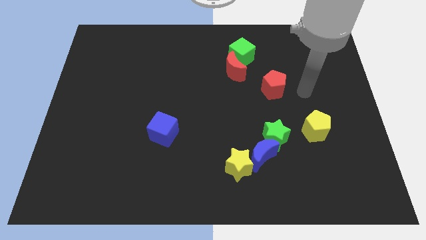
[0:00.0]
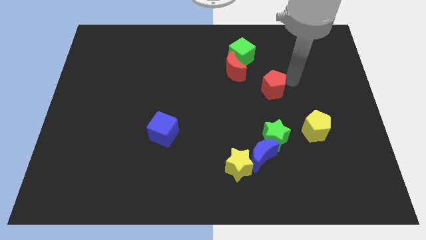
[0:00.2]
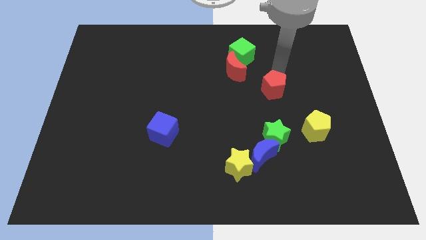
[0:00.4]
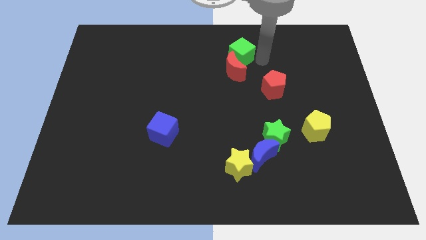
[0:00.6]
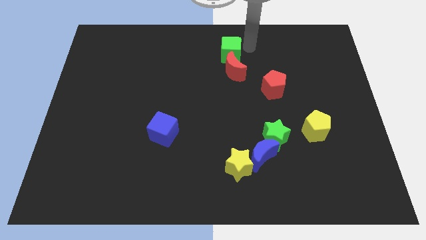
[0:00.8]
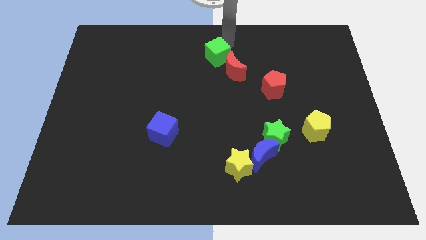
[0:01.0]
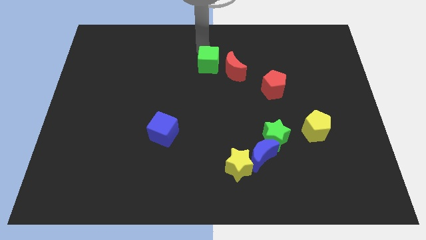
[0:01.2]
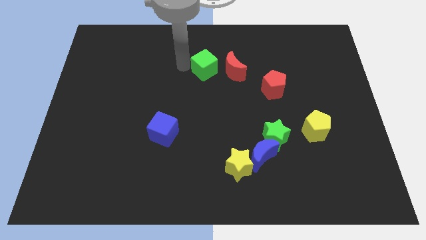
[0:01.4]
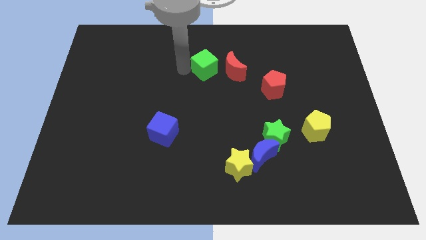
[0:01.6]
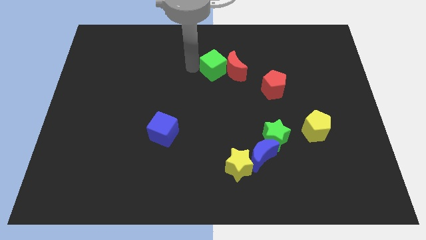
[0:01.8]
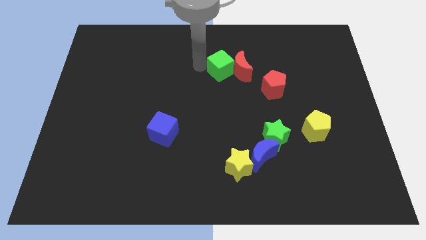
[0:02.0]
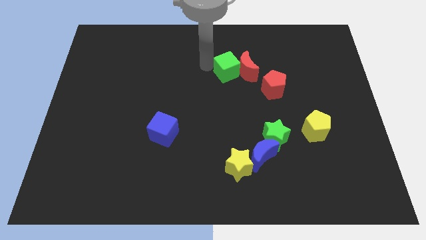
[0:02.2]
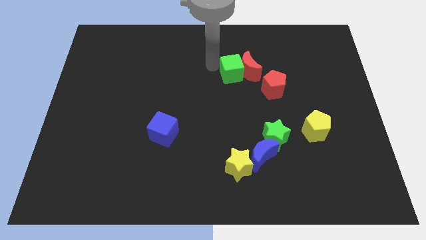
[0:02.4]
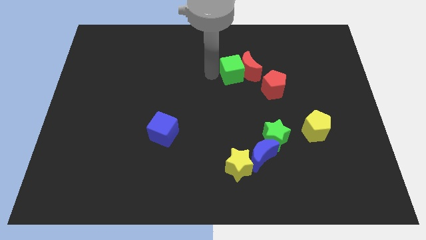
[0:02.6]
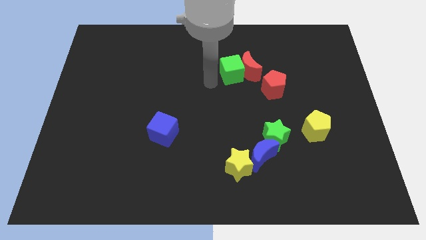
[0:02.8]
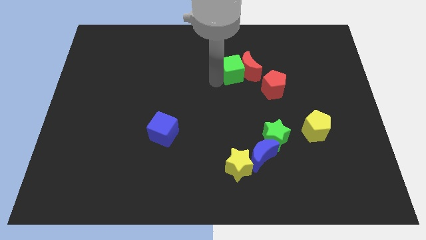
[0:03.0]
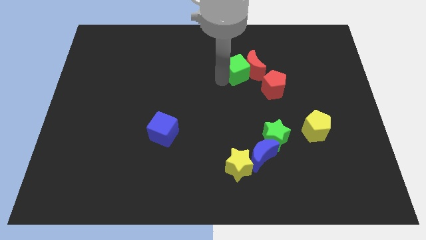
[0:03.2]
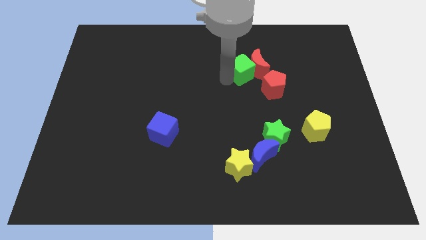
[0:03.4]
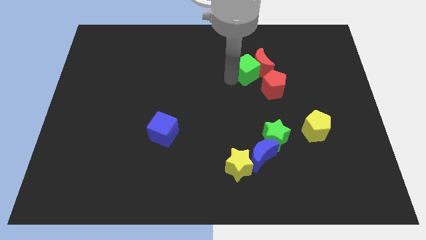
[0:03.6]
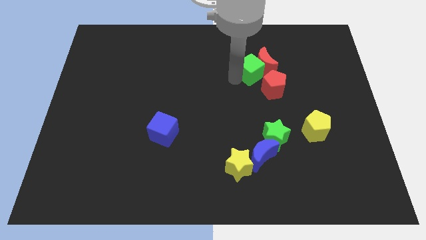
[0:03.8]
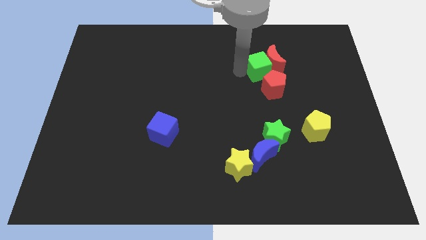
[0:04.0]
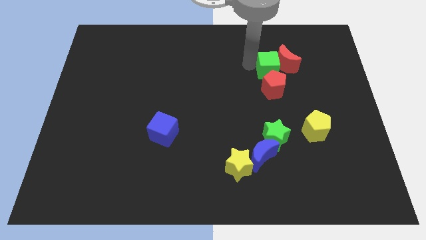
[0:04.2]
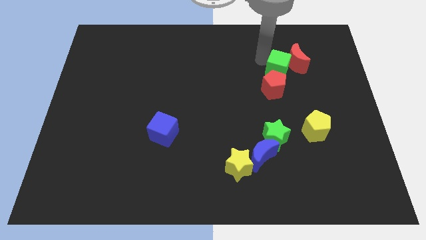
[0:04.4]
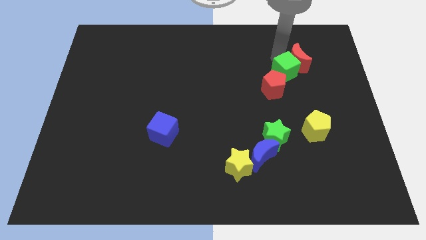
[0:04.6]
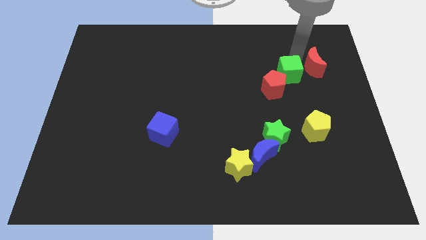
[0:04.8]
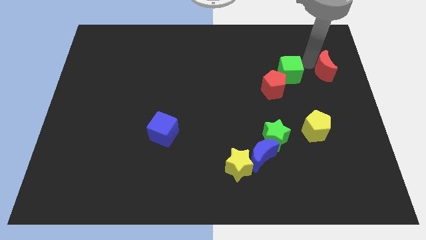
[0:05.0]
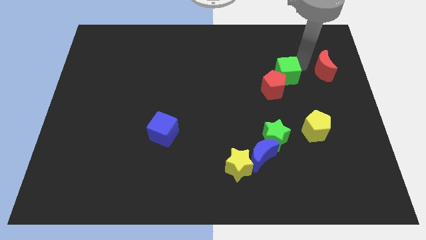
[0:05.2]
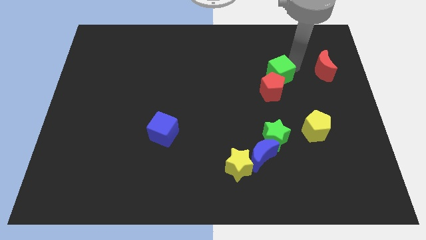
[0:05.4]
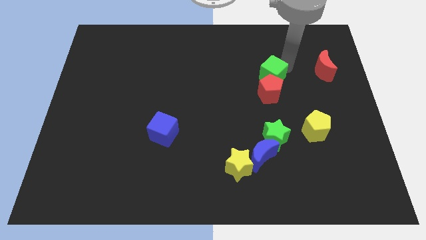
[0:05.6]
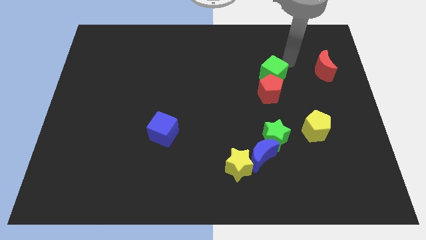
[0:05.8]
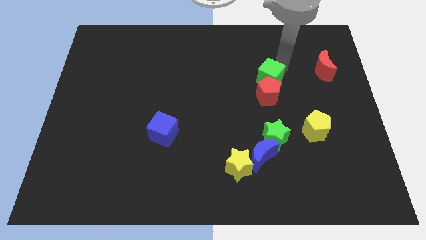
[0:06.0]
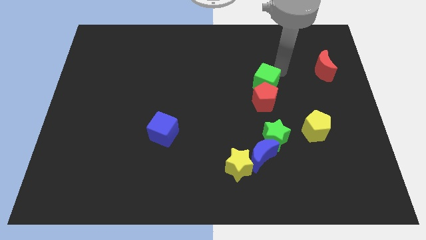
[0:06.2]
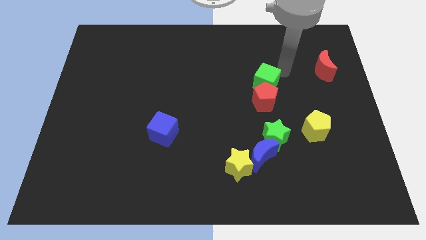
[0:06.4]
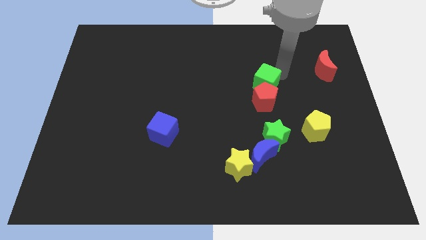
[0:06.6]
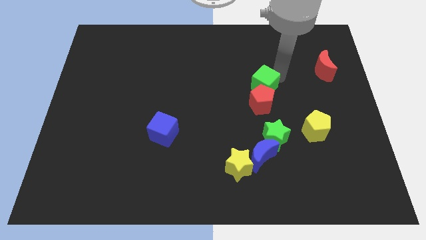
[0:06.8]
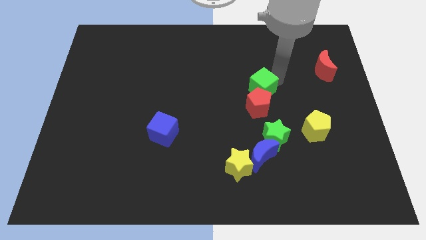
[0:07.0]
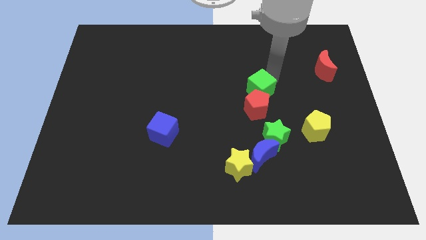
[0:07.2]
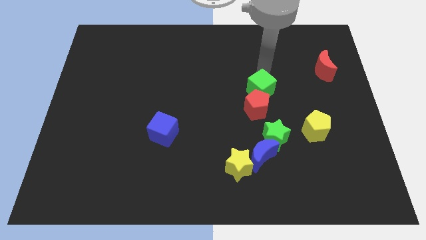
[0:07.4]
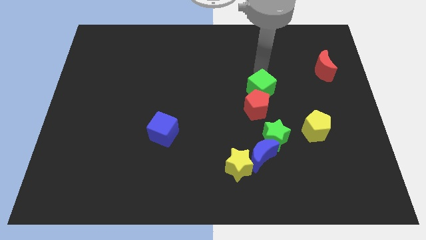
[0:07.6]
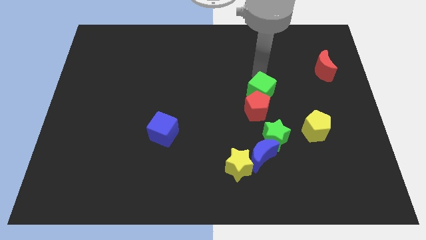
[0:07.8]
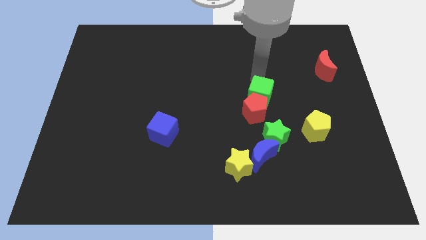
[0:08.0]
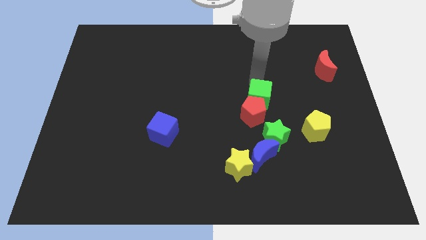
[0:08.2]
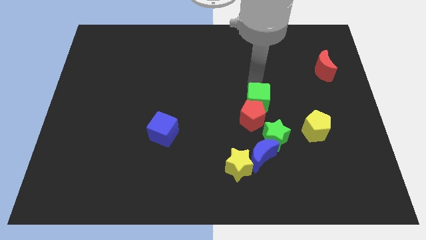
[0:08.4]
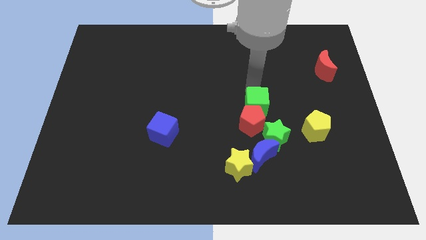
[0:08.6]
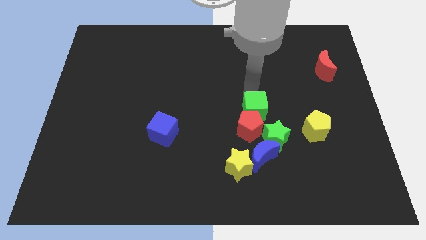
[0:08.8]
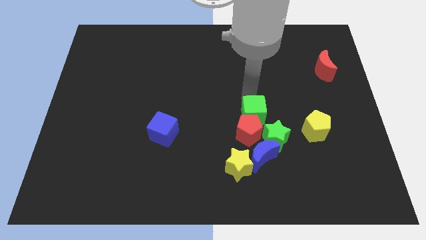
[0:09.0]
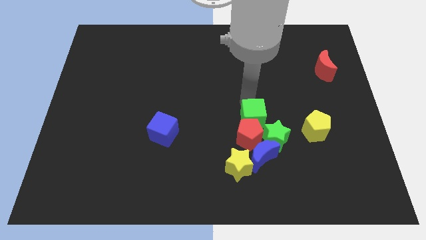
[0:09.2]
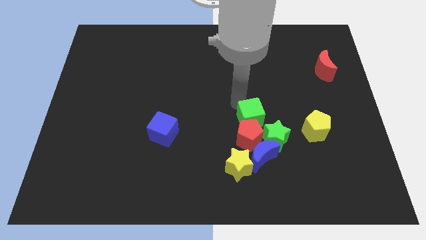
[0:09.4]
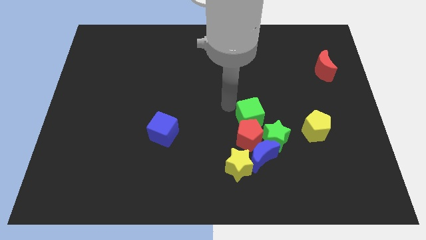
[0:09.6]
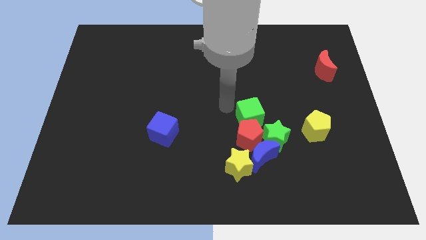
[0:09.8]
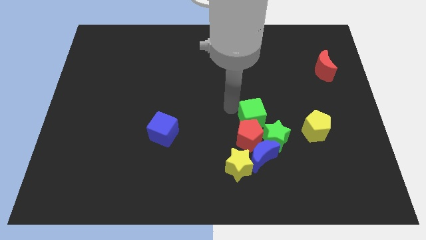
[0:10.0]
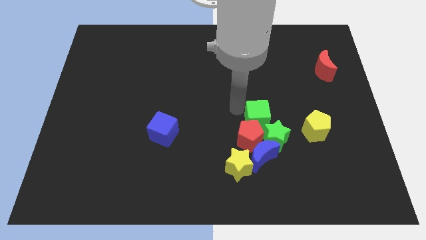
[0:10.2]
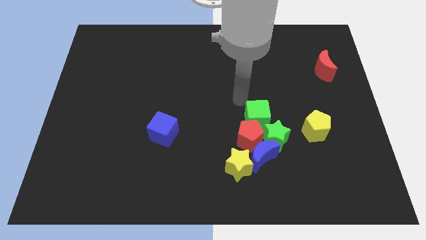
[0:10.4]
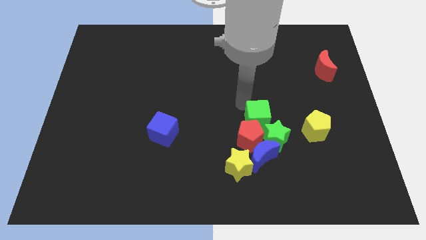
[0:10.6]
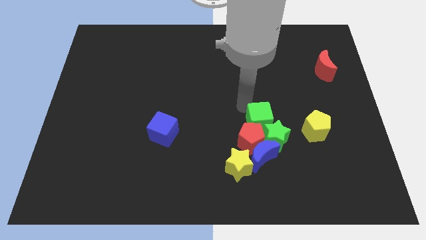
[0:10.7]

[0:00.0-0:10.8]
push the green cube next to the green star

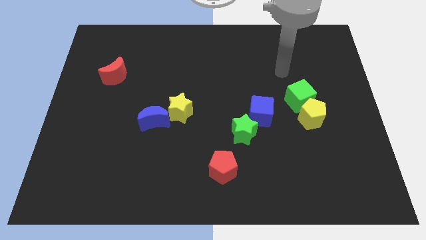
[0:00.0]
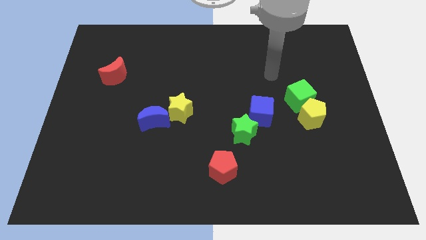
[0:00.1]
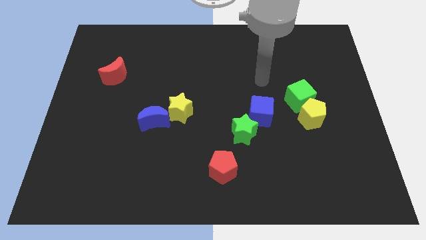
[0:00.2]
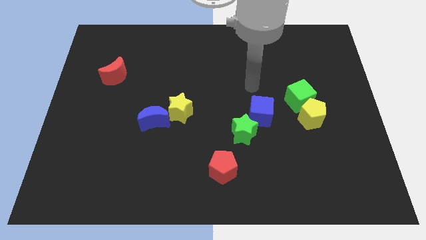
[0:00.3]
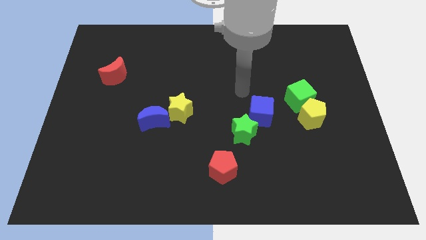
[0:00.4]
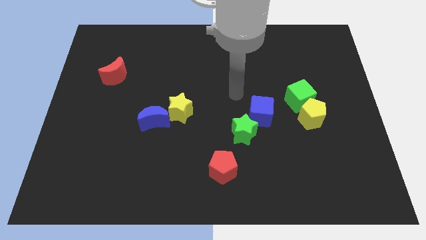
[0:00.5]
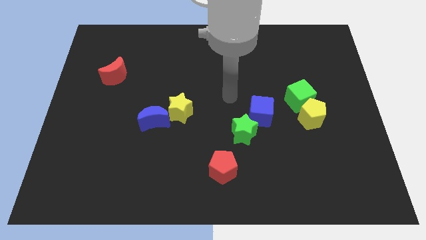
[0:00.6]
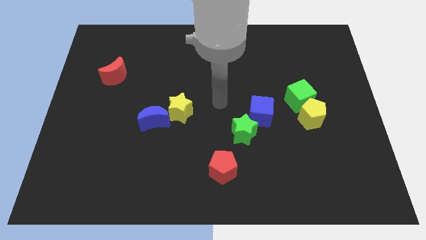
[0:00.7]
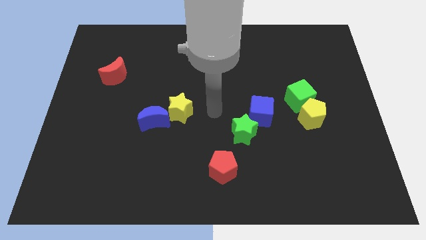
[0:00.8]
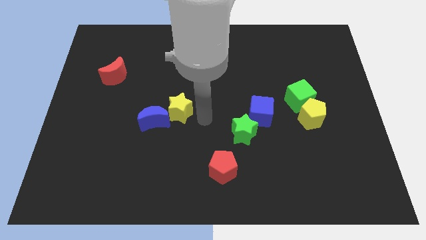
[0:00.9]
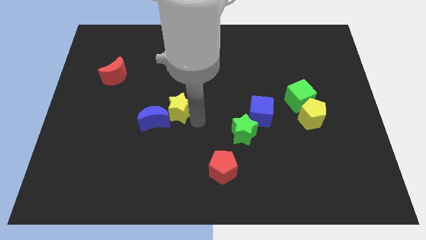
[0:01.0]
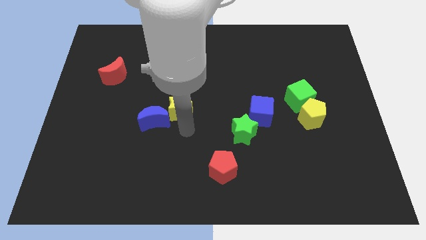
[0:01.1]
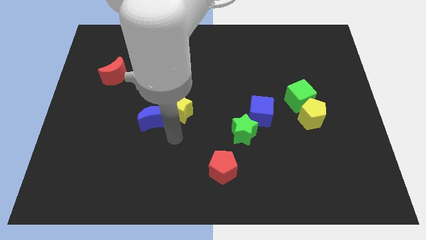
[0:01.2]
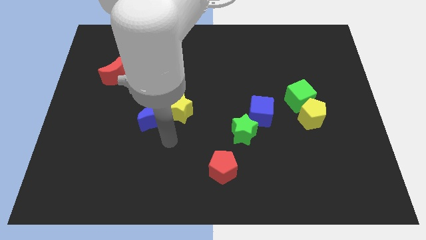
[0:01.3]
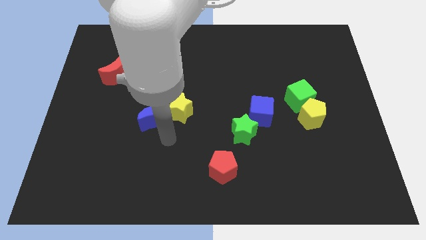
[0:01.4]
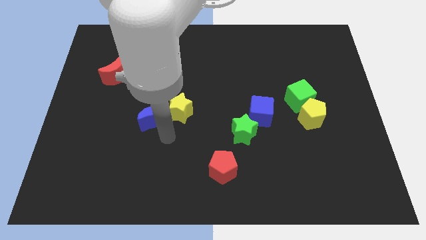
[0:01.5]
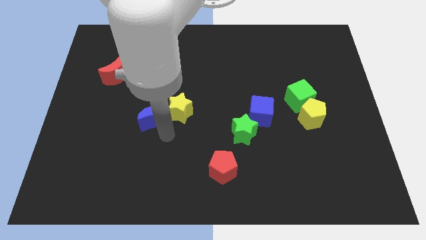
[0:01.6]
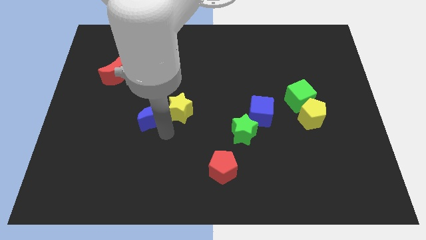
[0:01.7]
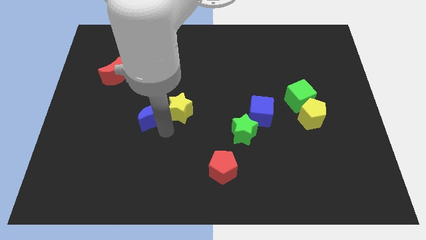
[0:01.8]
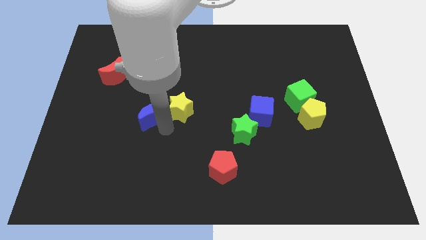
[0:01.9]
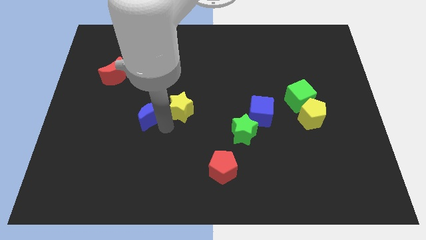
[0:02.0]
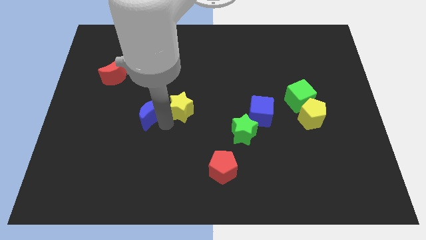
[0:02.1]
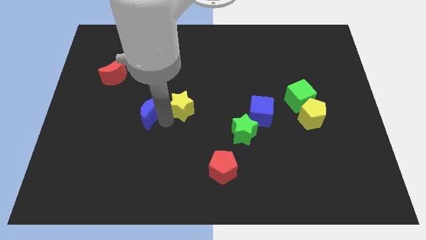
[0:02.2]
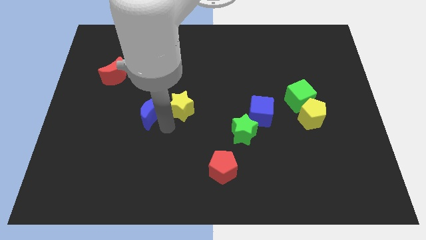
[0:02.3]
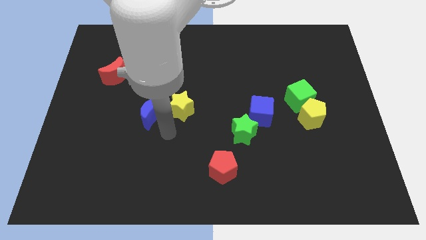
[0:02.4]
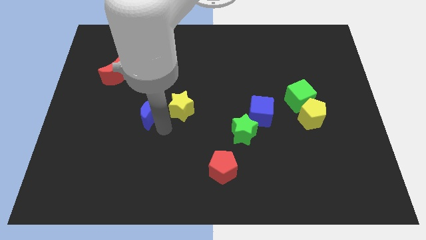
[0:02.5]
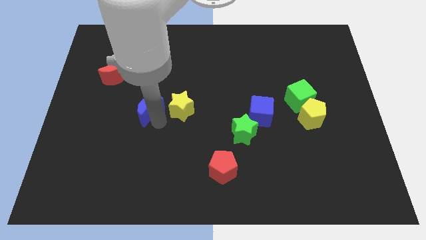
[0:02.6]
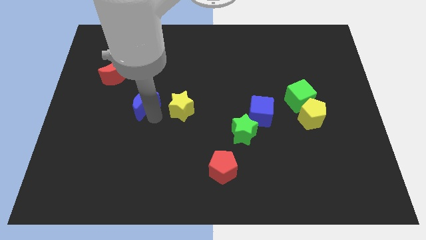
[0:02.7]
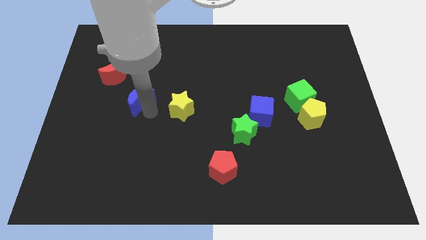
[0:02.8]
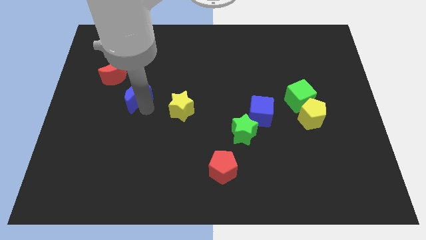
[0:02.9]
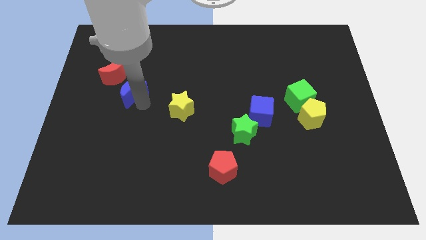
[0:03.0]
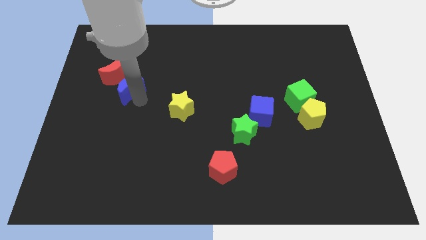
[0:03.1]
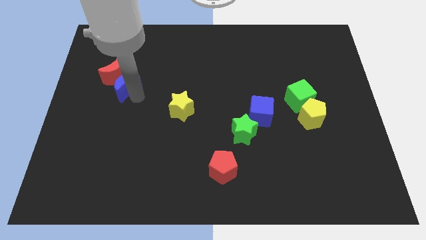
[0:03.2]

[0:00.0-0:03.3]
push the blue moon close to the red moon
